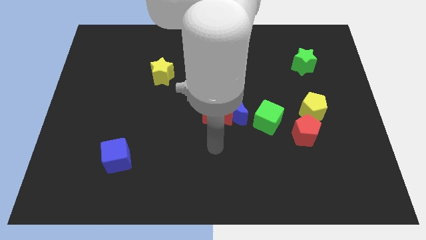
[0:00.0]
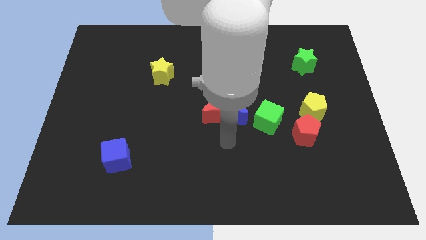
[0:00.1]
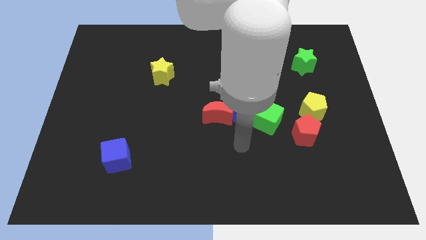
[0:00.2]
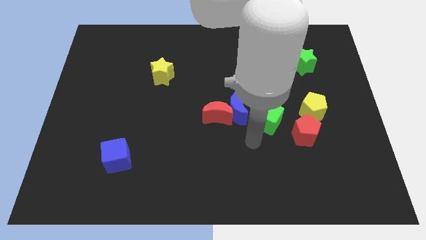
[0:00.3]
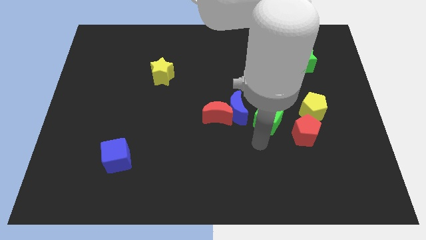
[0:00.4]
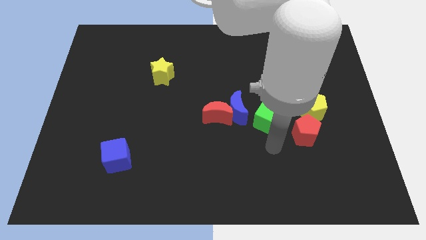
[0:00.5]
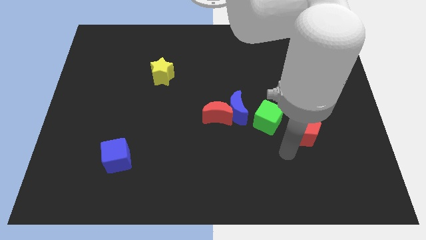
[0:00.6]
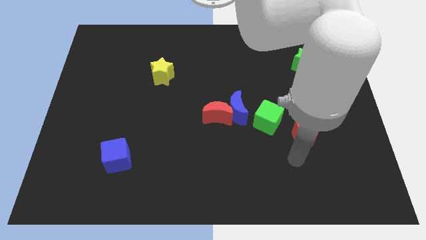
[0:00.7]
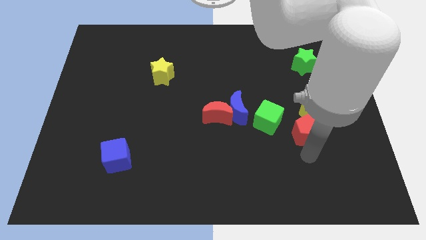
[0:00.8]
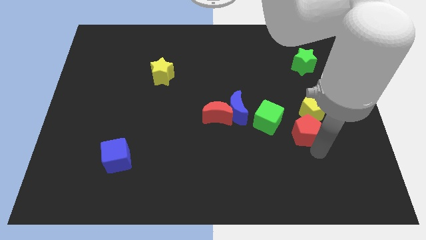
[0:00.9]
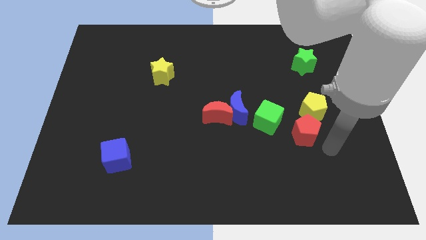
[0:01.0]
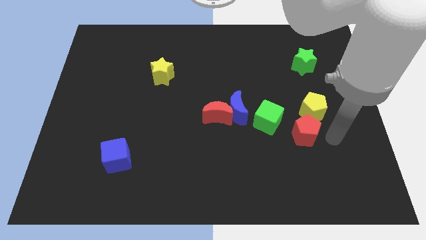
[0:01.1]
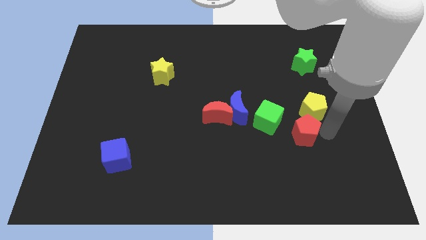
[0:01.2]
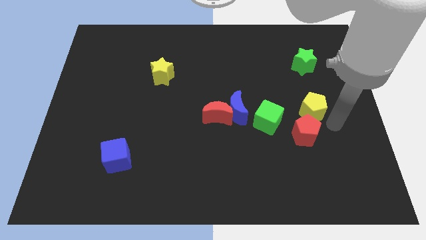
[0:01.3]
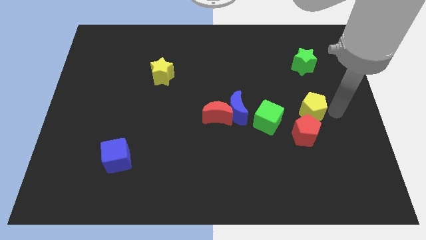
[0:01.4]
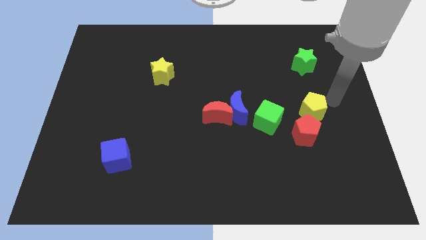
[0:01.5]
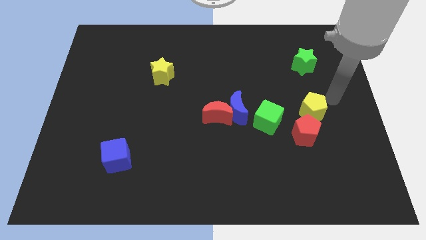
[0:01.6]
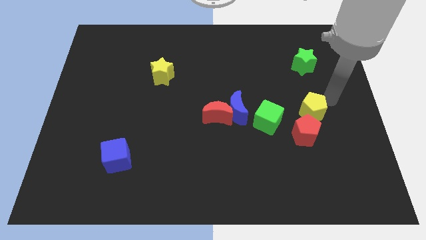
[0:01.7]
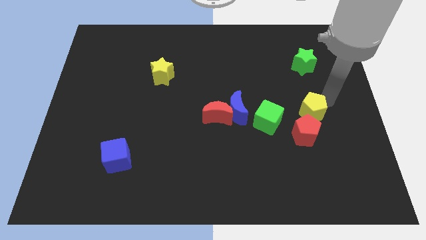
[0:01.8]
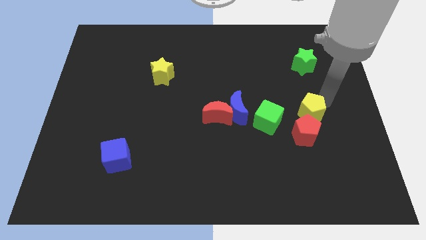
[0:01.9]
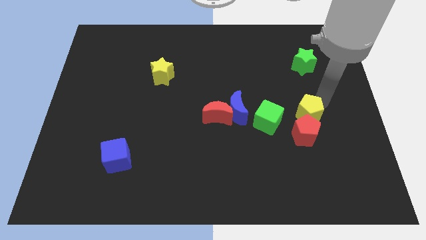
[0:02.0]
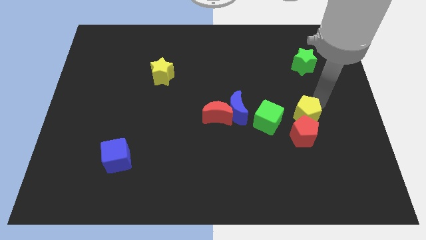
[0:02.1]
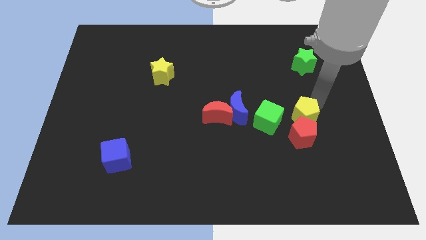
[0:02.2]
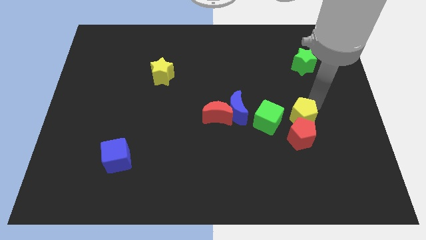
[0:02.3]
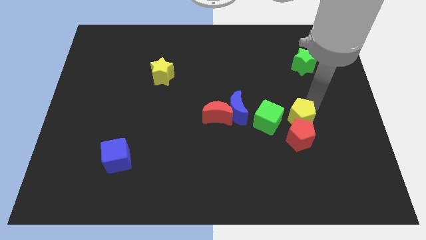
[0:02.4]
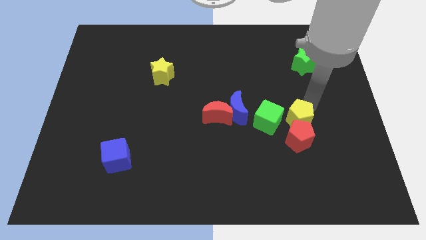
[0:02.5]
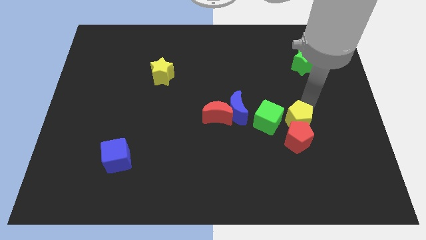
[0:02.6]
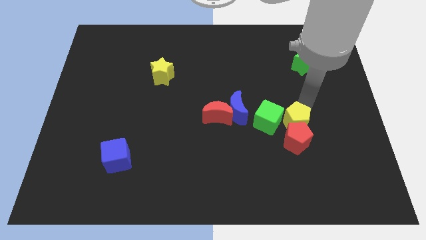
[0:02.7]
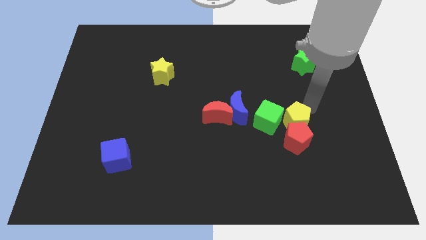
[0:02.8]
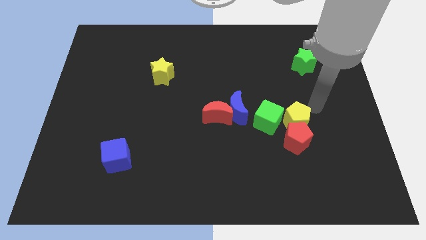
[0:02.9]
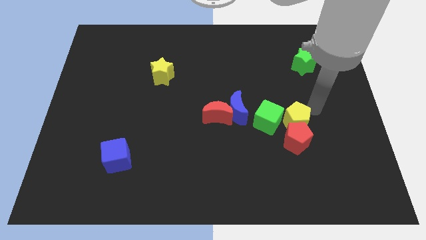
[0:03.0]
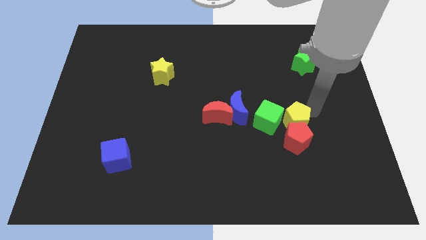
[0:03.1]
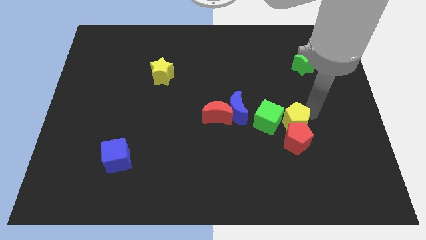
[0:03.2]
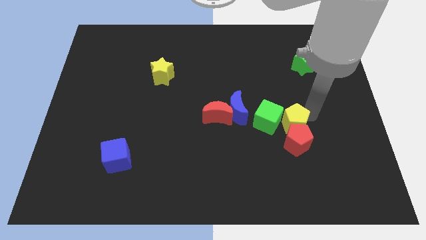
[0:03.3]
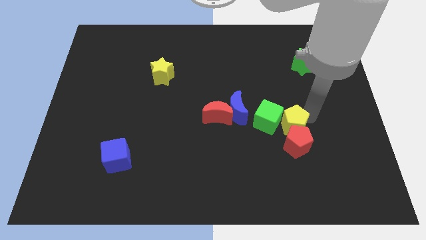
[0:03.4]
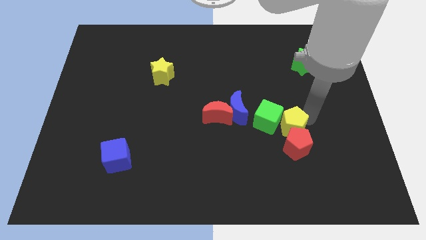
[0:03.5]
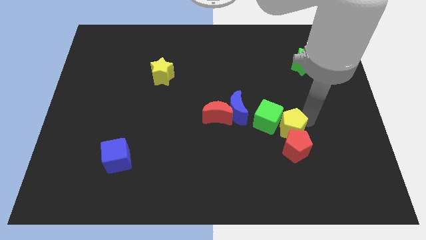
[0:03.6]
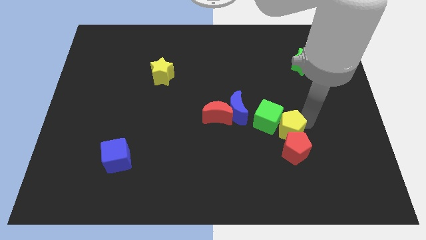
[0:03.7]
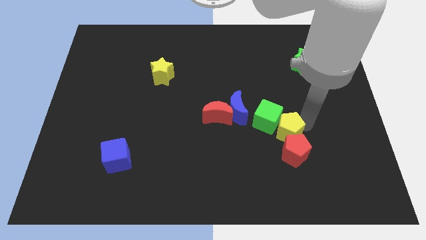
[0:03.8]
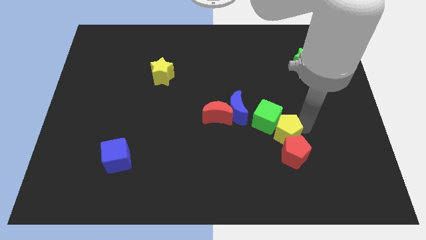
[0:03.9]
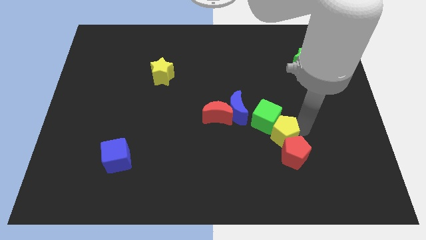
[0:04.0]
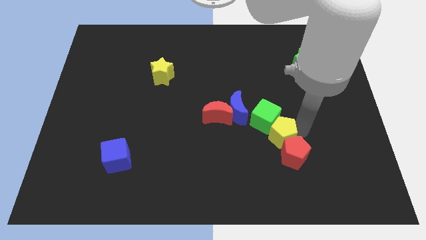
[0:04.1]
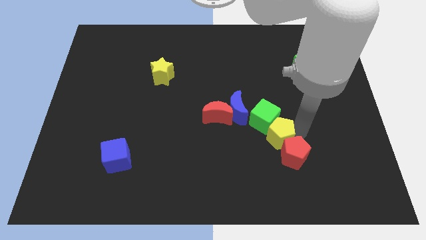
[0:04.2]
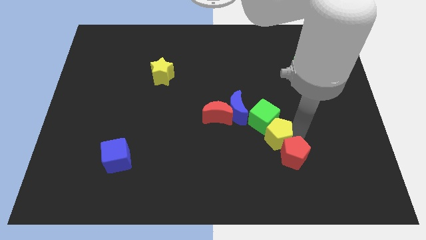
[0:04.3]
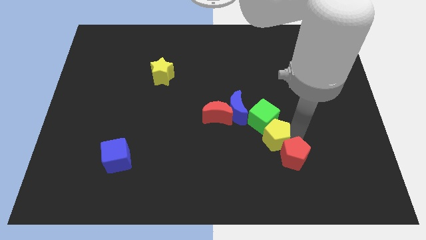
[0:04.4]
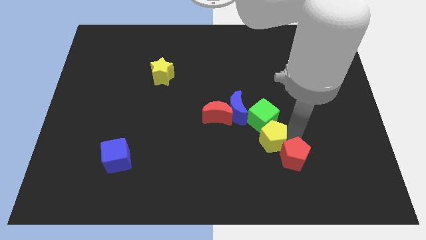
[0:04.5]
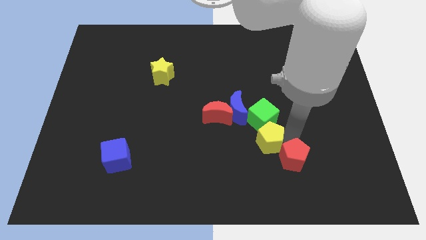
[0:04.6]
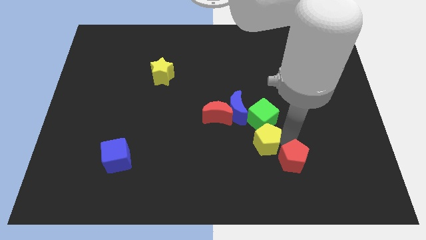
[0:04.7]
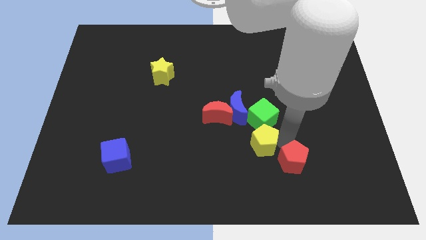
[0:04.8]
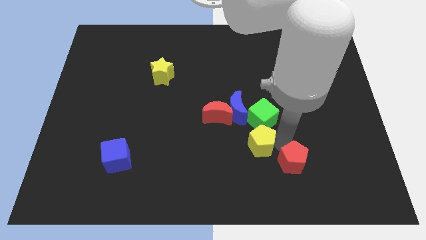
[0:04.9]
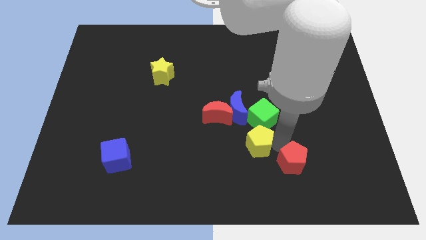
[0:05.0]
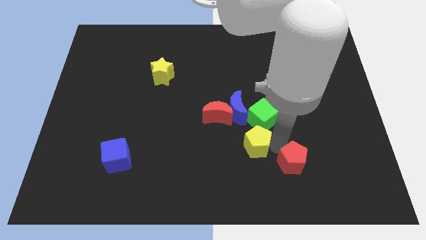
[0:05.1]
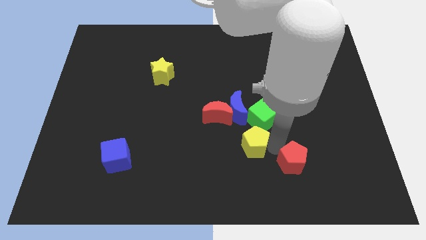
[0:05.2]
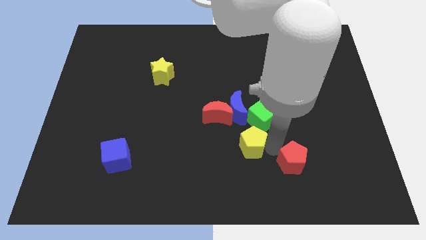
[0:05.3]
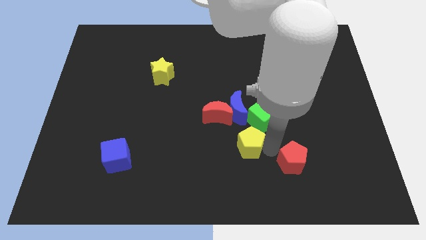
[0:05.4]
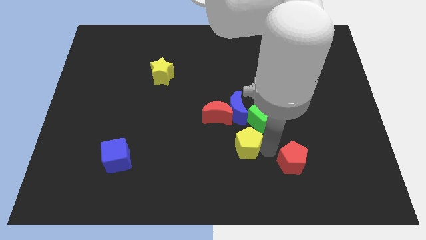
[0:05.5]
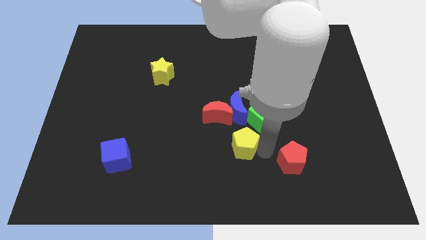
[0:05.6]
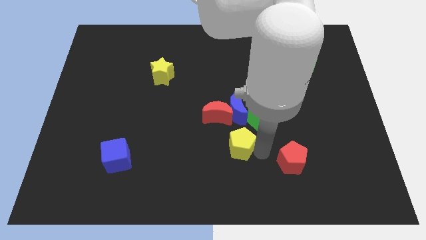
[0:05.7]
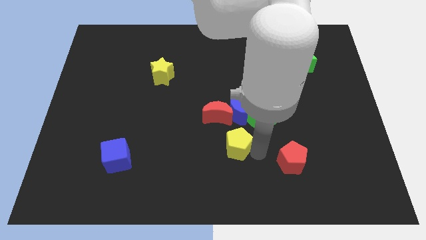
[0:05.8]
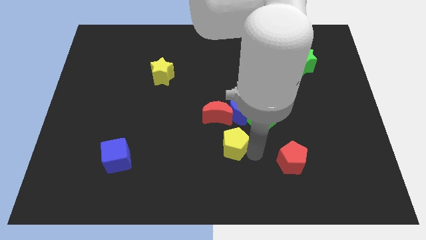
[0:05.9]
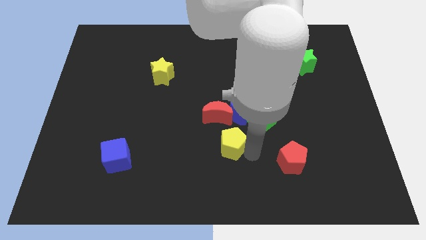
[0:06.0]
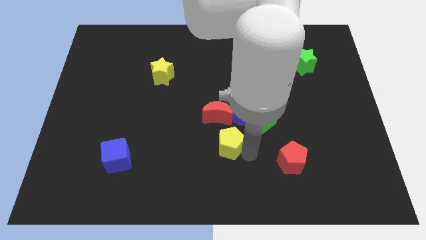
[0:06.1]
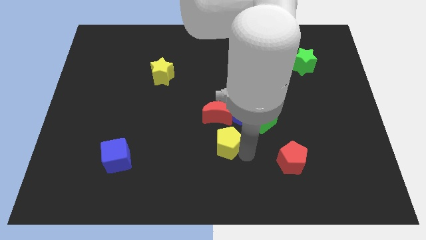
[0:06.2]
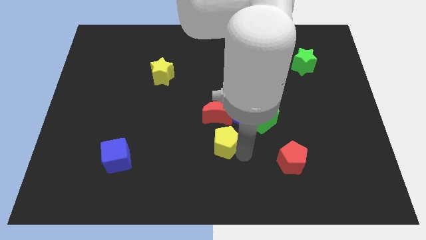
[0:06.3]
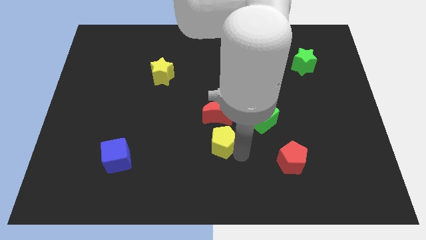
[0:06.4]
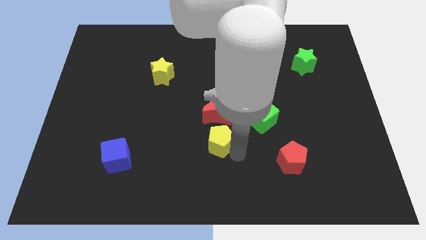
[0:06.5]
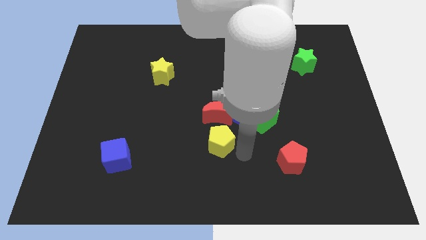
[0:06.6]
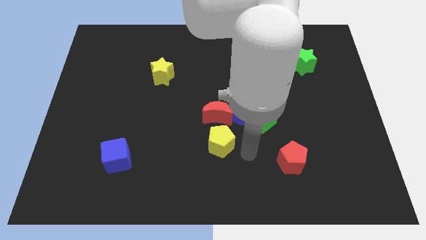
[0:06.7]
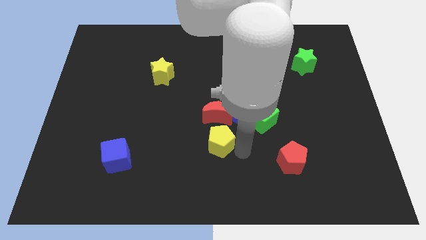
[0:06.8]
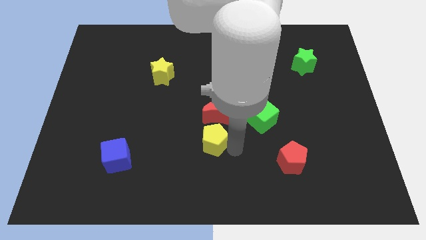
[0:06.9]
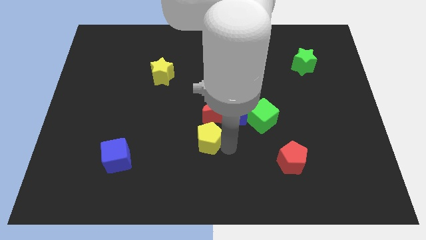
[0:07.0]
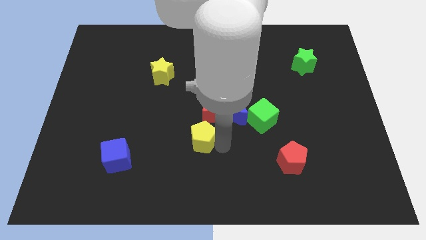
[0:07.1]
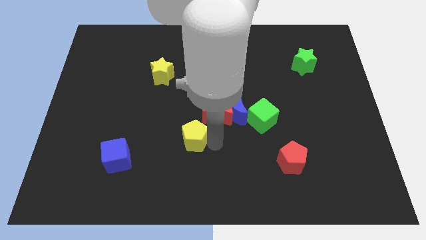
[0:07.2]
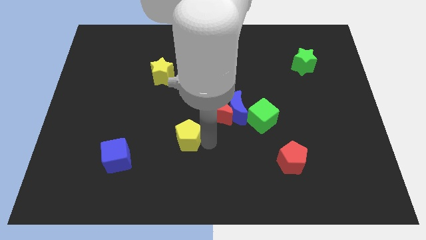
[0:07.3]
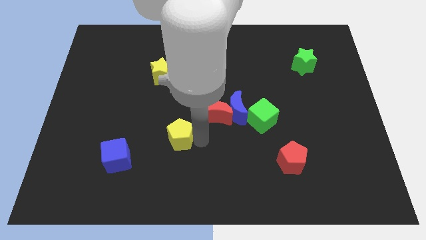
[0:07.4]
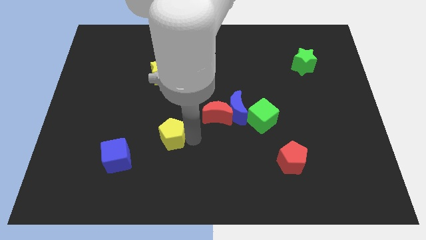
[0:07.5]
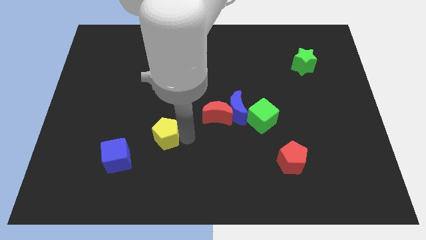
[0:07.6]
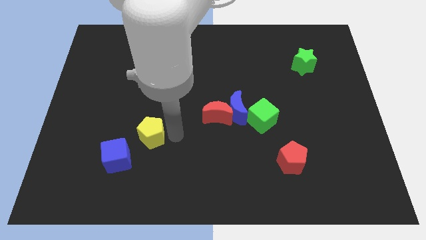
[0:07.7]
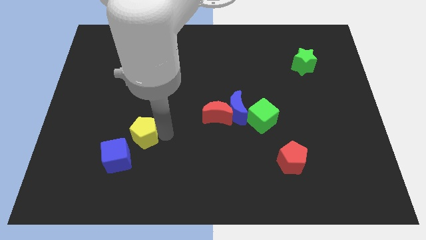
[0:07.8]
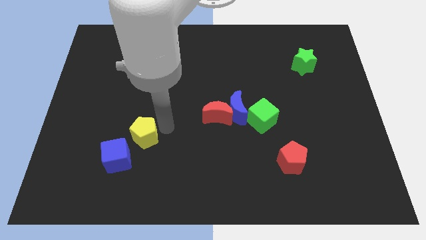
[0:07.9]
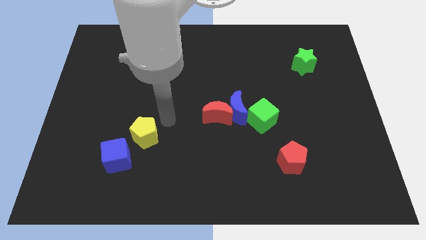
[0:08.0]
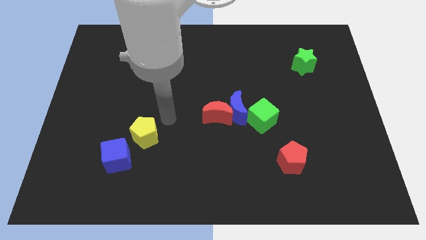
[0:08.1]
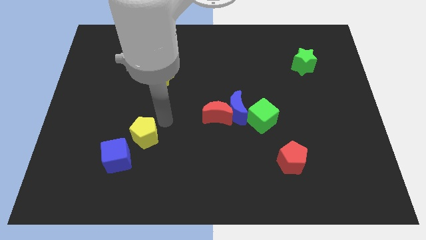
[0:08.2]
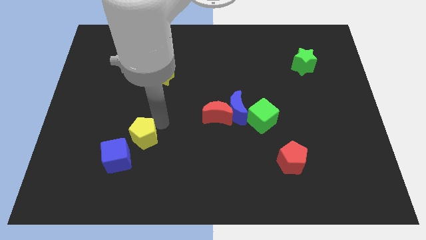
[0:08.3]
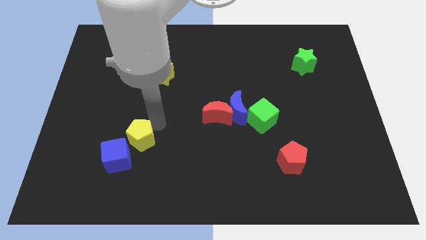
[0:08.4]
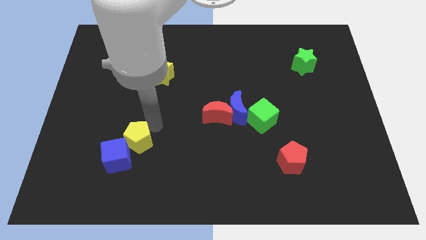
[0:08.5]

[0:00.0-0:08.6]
push the yellow pentagon towards the blue cube
